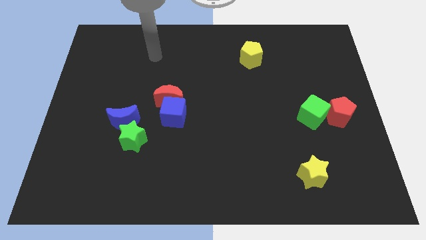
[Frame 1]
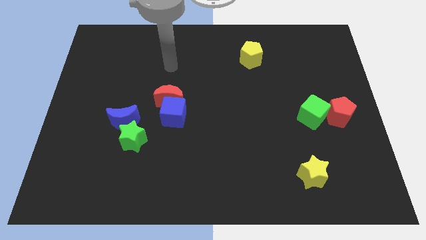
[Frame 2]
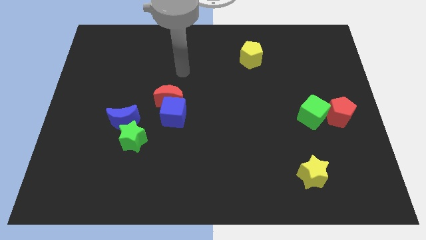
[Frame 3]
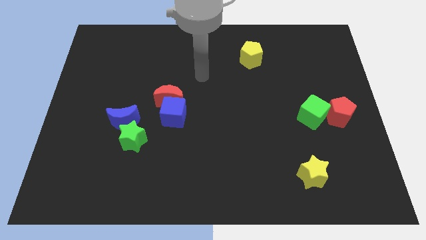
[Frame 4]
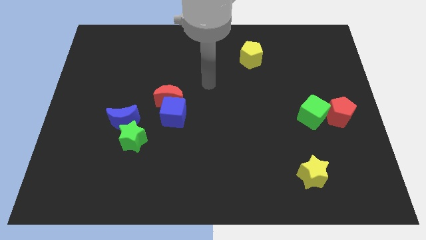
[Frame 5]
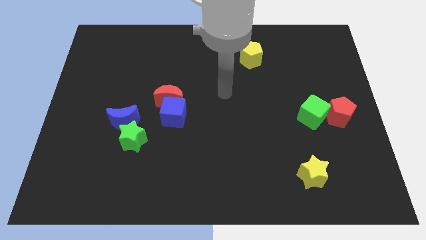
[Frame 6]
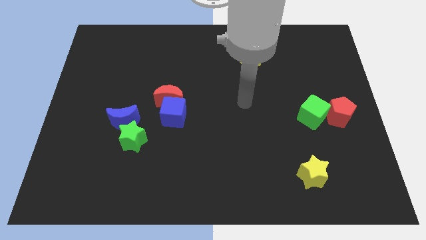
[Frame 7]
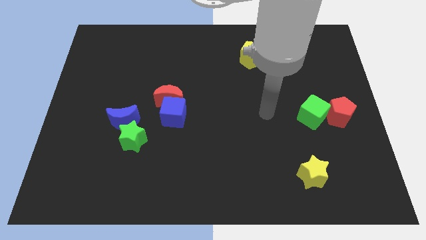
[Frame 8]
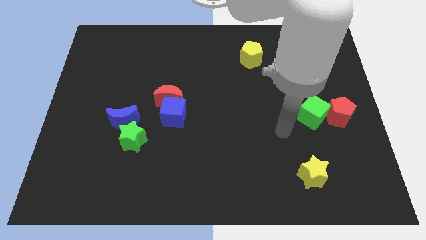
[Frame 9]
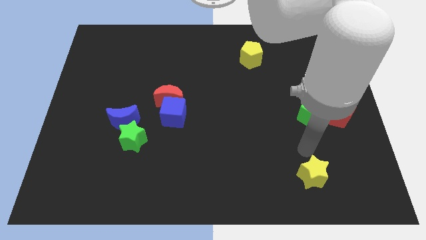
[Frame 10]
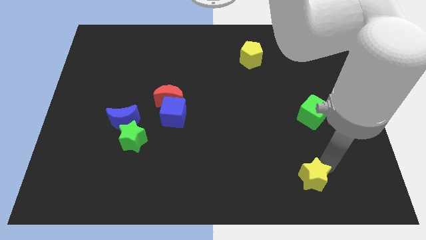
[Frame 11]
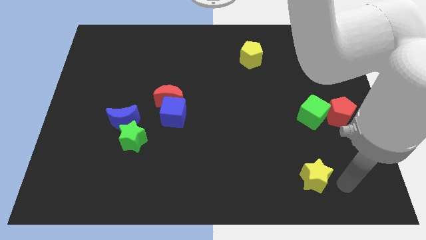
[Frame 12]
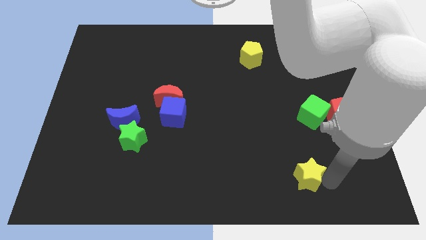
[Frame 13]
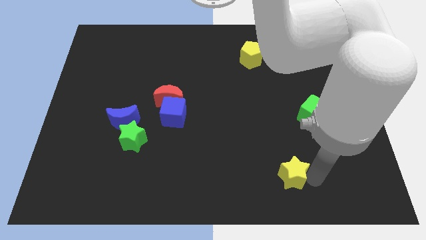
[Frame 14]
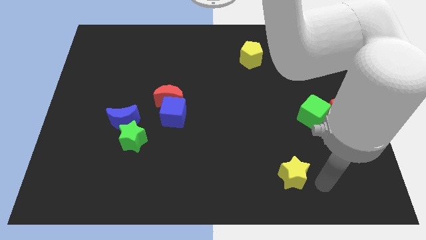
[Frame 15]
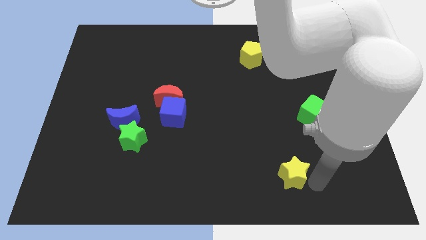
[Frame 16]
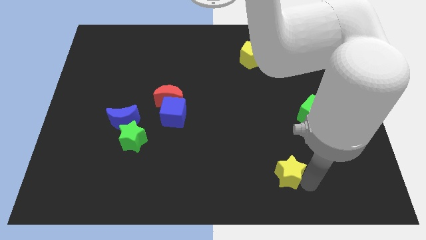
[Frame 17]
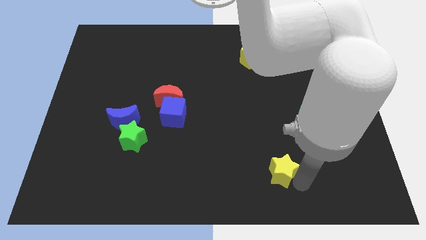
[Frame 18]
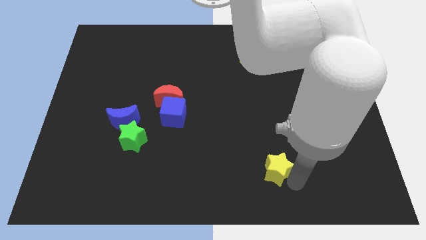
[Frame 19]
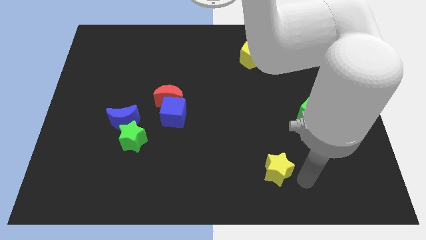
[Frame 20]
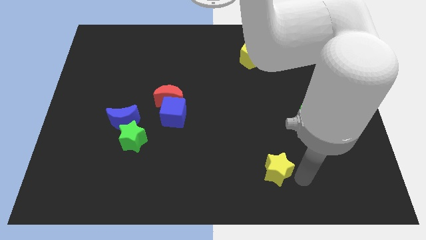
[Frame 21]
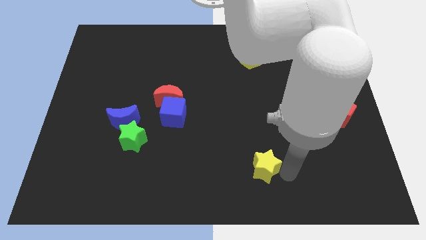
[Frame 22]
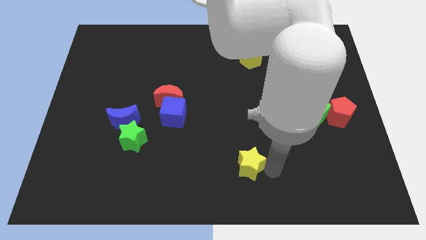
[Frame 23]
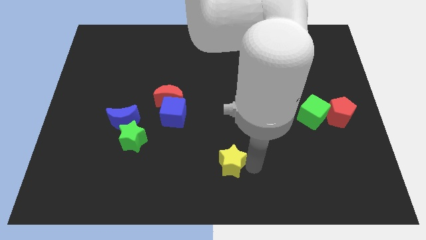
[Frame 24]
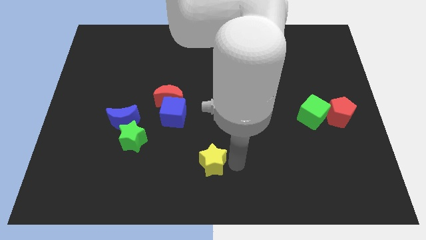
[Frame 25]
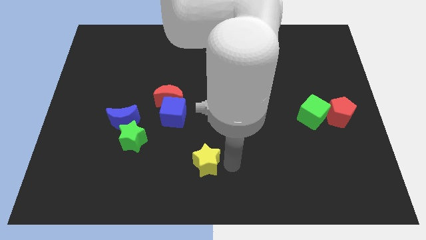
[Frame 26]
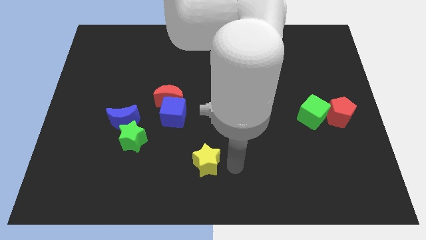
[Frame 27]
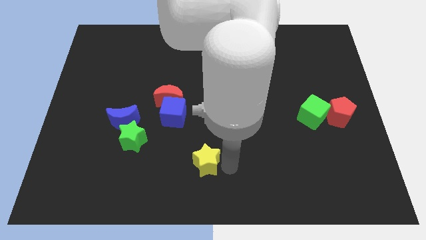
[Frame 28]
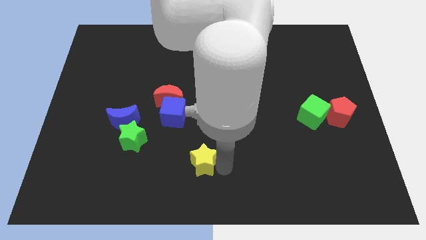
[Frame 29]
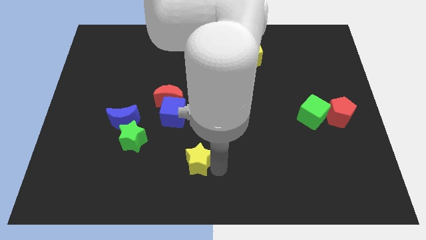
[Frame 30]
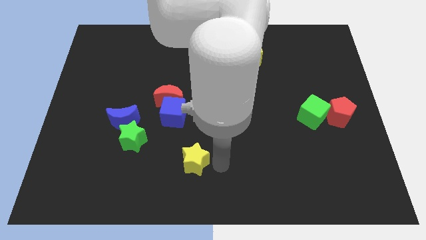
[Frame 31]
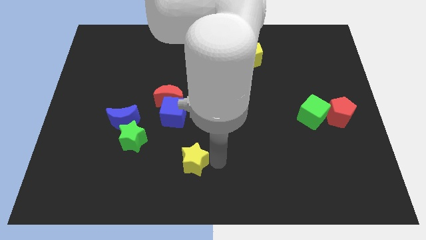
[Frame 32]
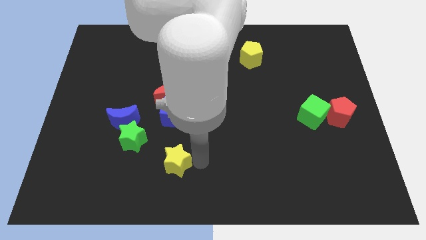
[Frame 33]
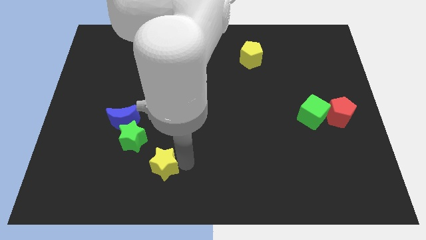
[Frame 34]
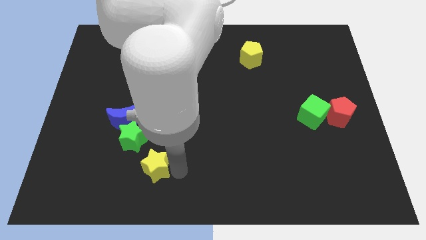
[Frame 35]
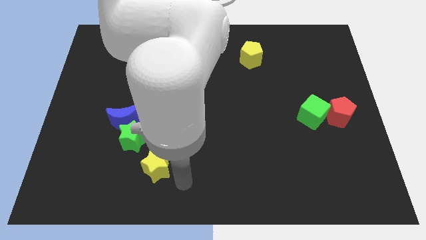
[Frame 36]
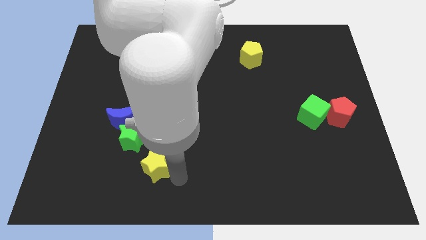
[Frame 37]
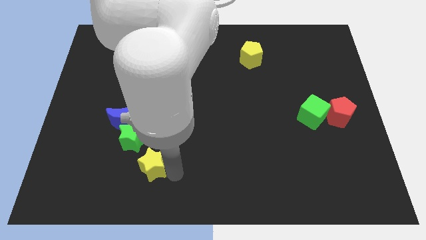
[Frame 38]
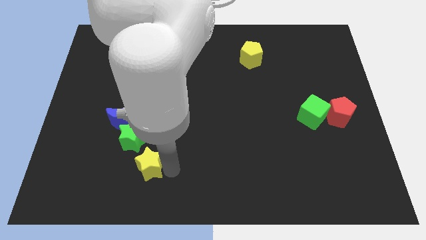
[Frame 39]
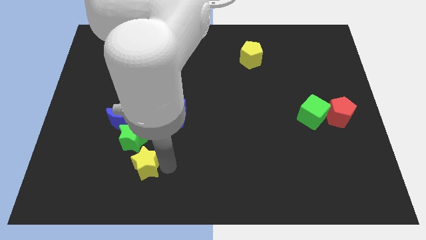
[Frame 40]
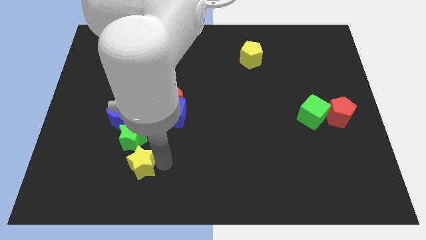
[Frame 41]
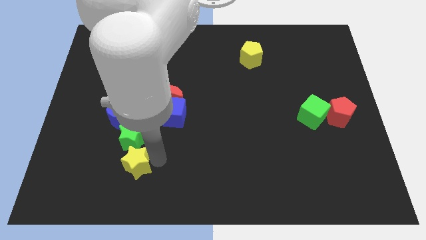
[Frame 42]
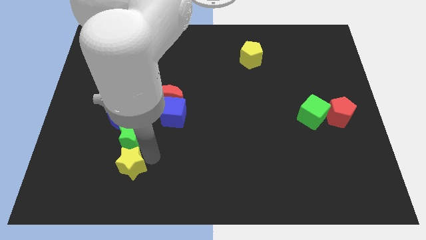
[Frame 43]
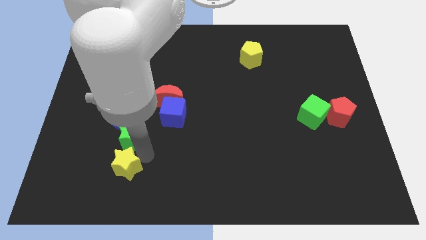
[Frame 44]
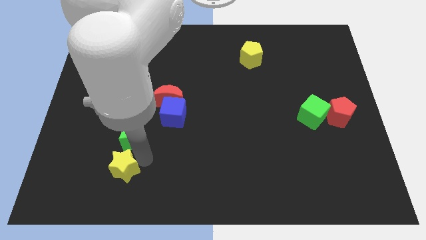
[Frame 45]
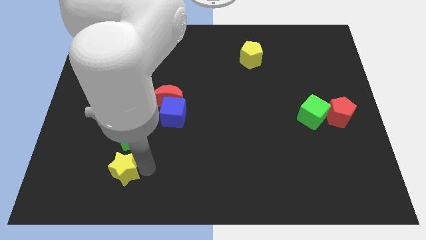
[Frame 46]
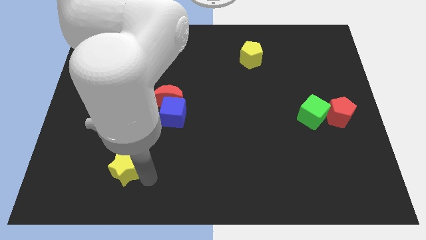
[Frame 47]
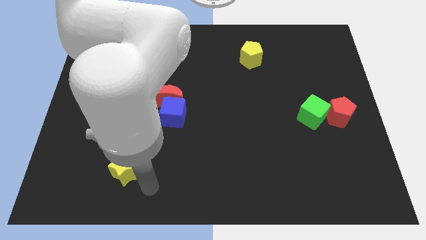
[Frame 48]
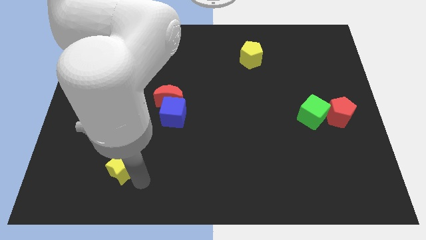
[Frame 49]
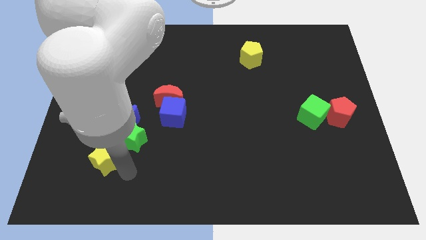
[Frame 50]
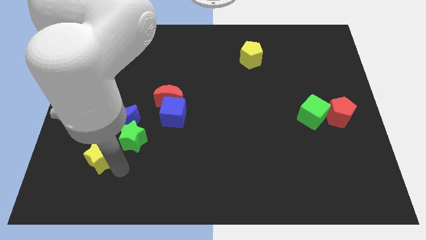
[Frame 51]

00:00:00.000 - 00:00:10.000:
move the yellow star diagonally down and to the left of the blue moon

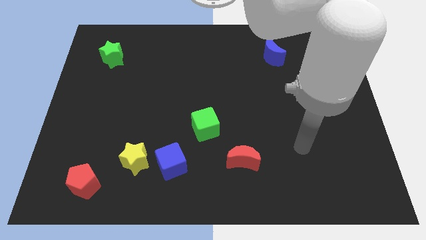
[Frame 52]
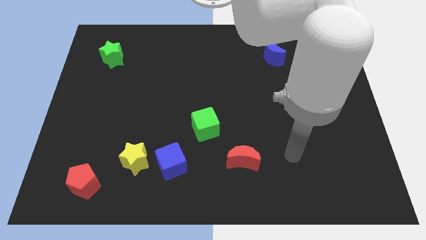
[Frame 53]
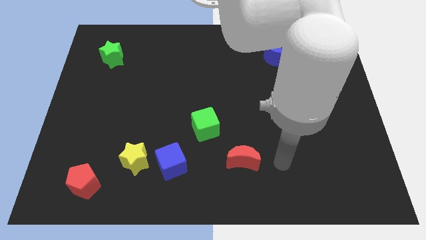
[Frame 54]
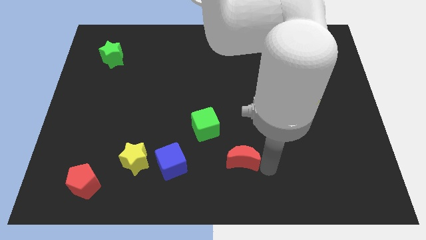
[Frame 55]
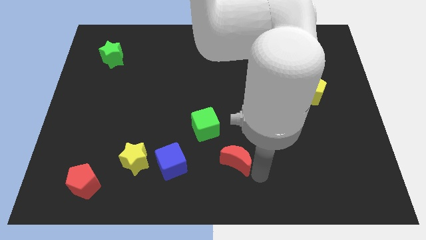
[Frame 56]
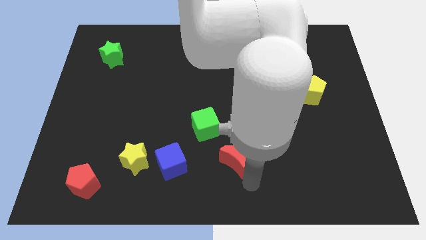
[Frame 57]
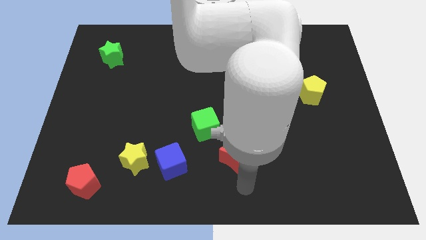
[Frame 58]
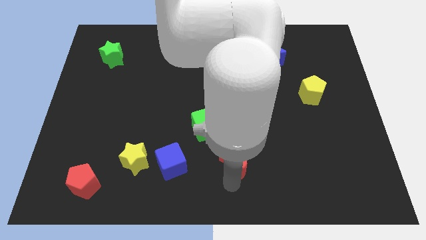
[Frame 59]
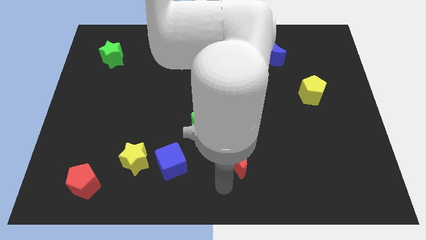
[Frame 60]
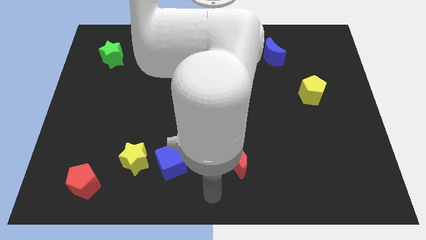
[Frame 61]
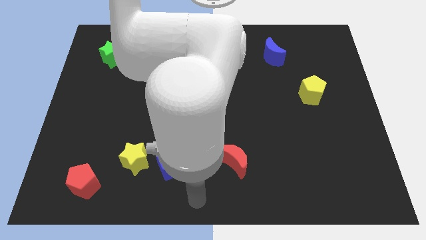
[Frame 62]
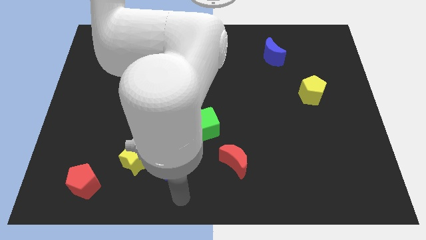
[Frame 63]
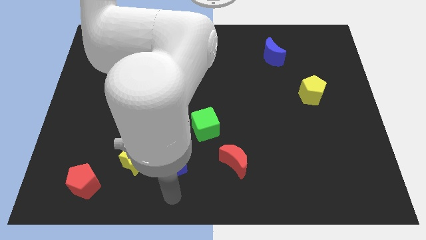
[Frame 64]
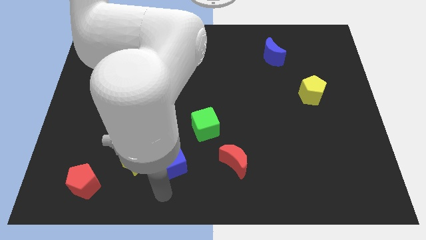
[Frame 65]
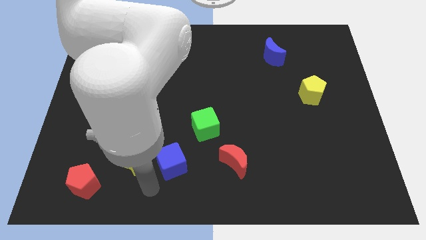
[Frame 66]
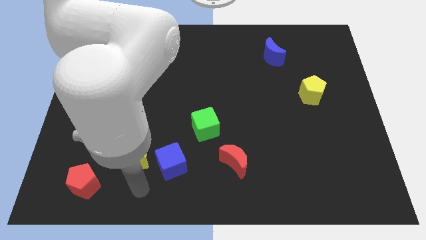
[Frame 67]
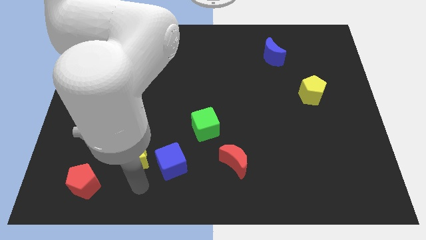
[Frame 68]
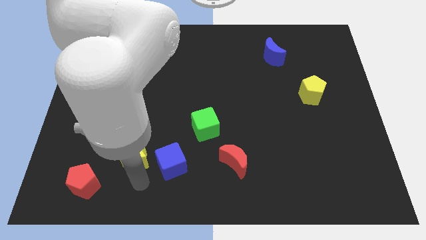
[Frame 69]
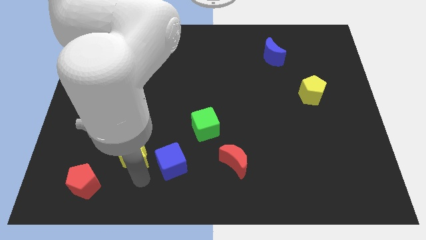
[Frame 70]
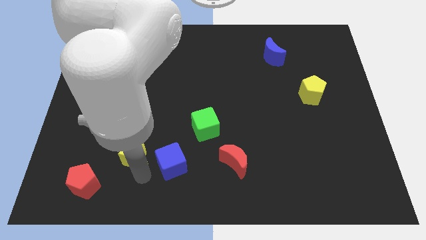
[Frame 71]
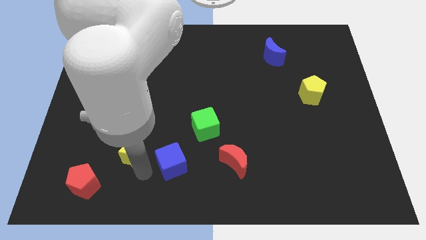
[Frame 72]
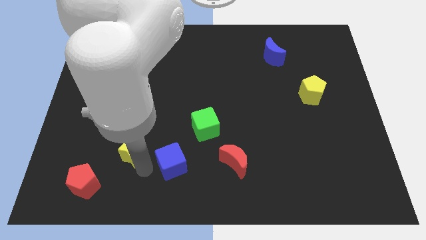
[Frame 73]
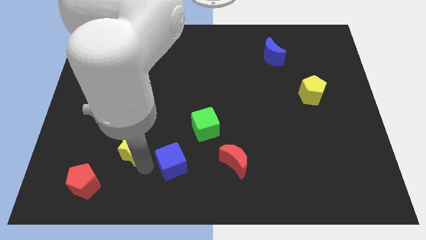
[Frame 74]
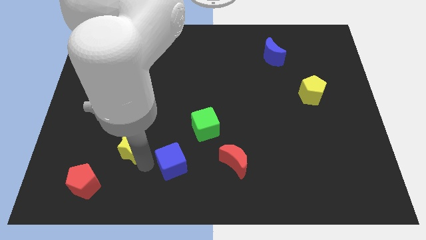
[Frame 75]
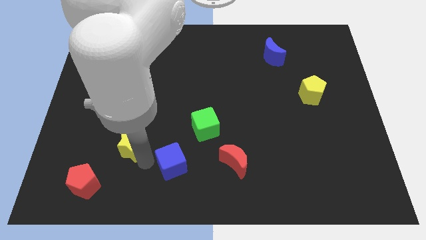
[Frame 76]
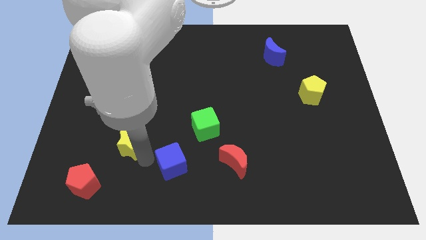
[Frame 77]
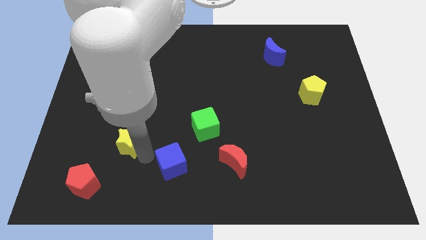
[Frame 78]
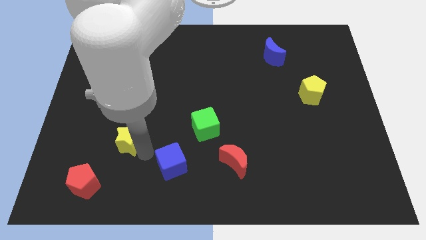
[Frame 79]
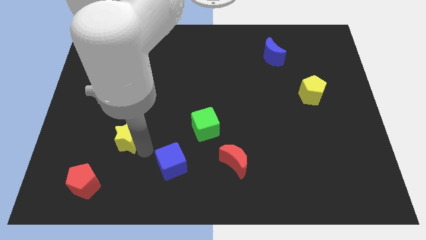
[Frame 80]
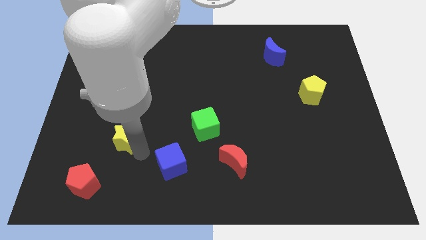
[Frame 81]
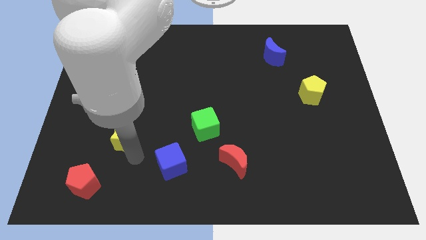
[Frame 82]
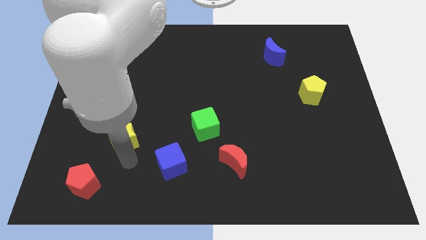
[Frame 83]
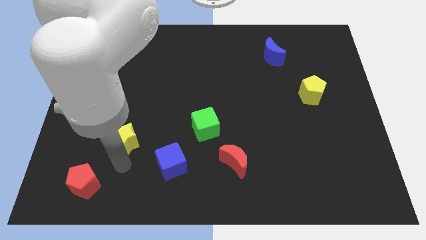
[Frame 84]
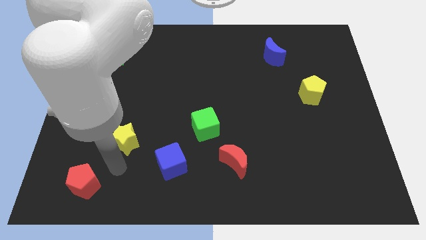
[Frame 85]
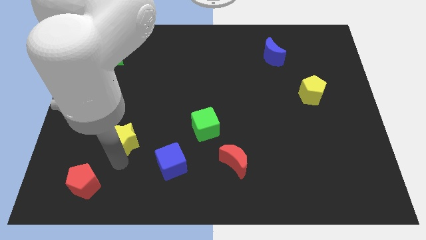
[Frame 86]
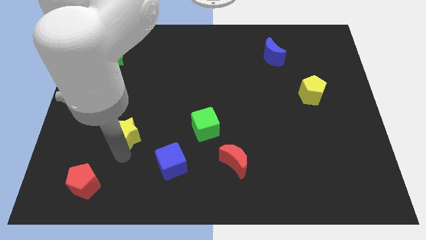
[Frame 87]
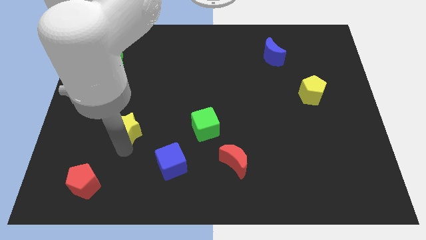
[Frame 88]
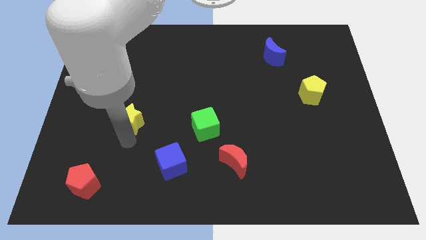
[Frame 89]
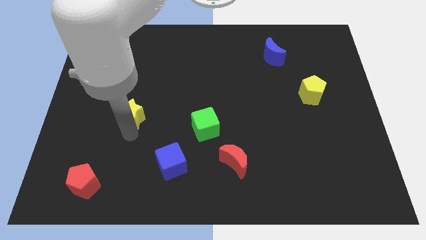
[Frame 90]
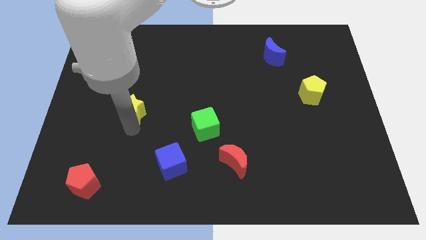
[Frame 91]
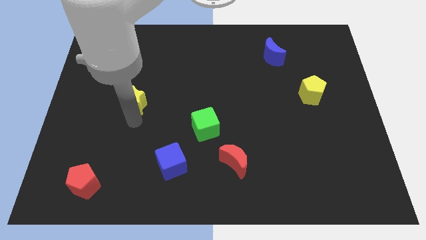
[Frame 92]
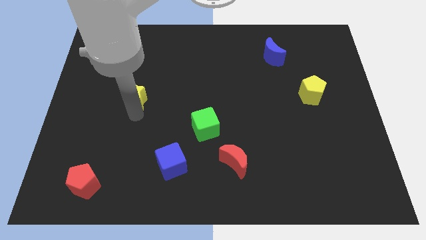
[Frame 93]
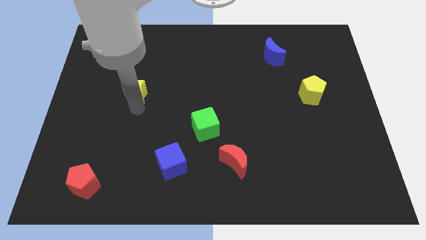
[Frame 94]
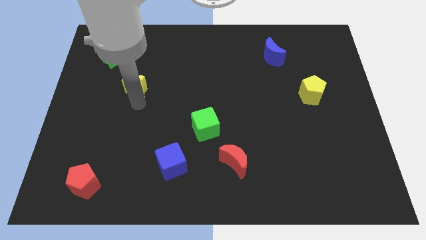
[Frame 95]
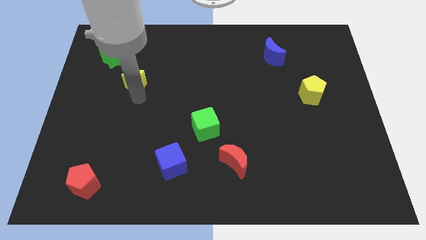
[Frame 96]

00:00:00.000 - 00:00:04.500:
slide the yellow star to the bottom right side of the green star
